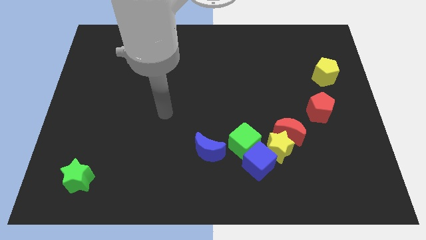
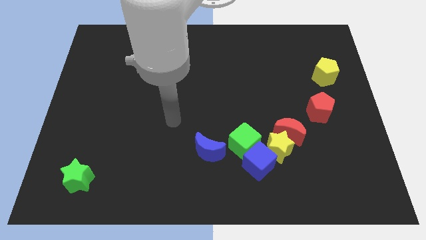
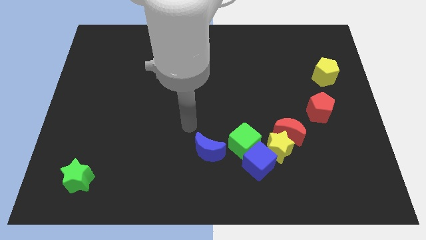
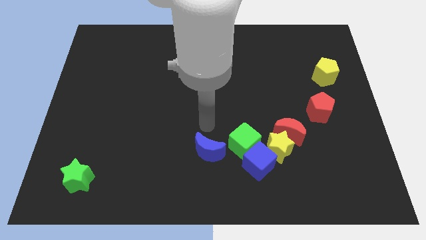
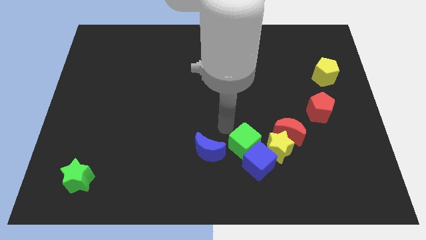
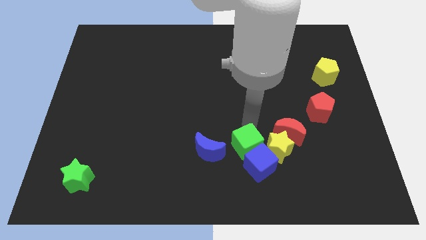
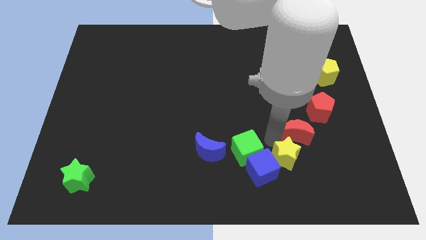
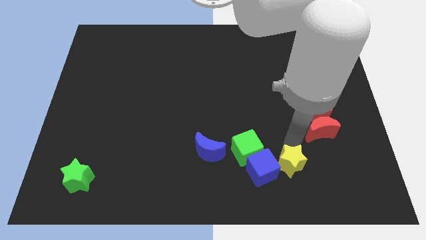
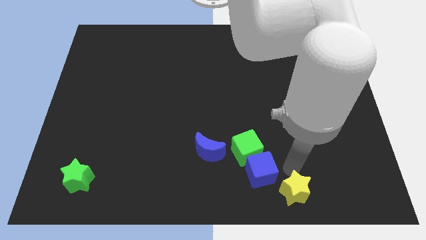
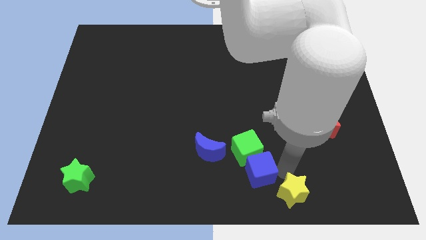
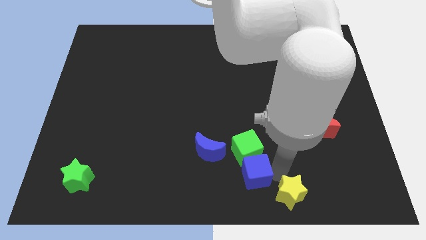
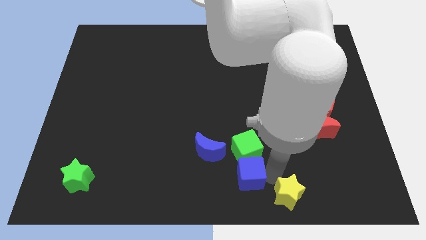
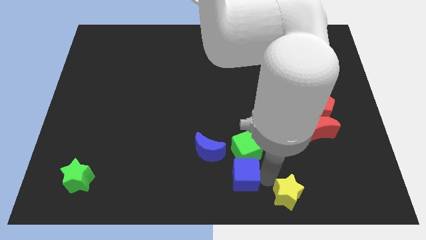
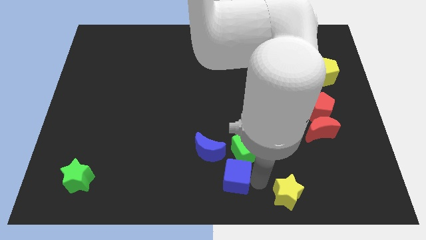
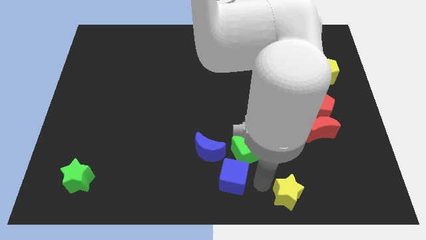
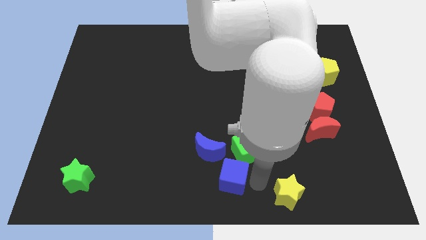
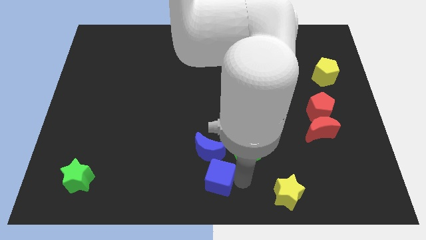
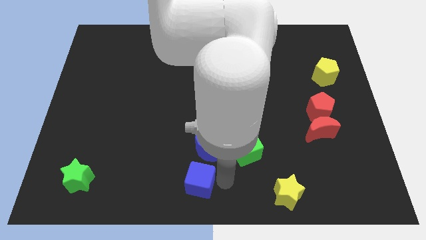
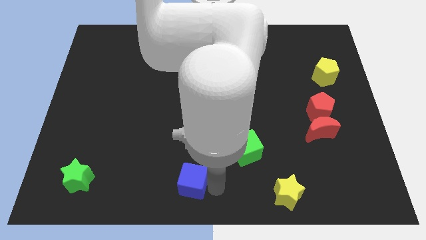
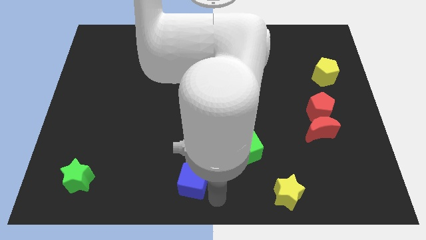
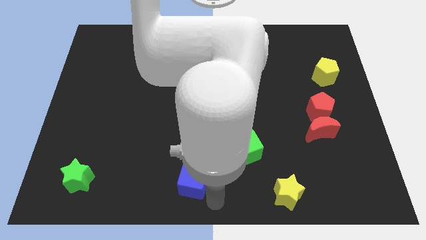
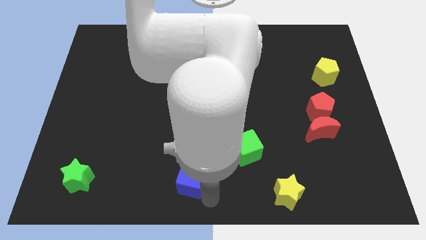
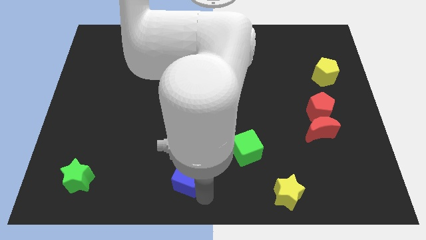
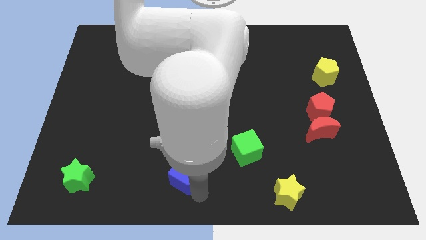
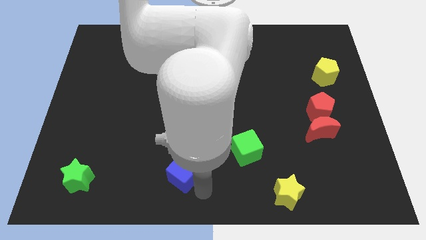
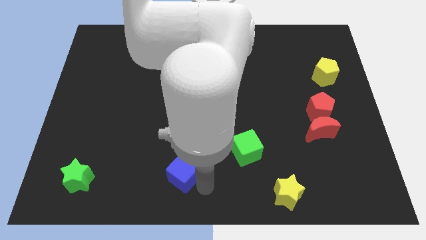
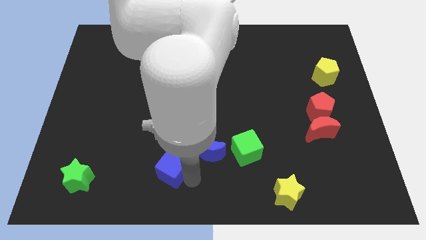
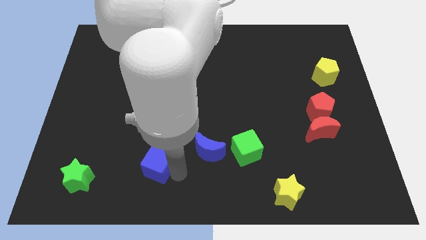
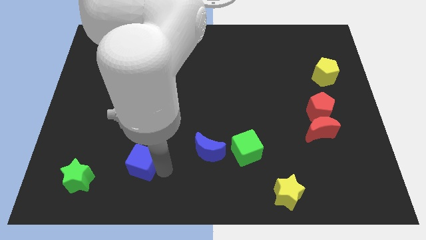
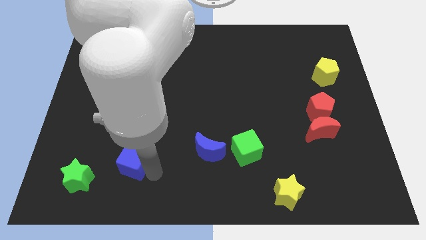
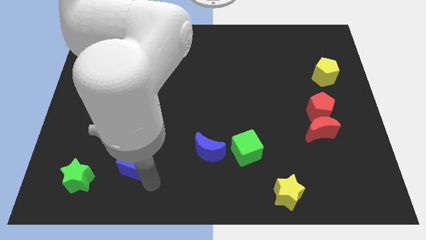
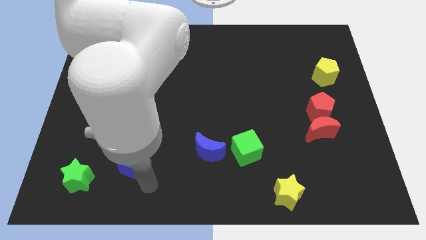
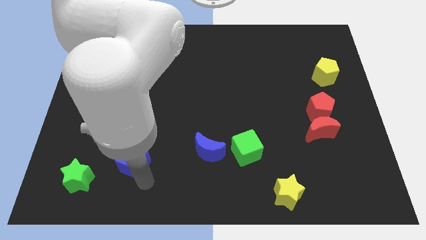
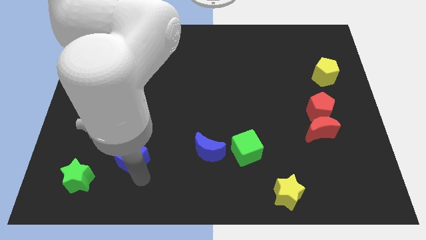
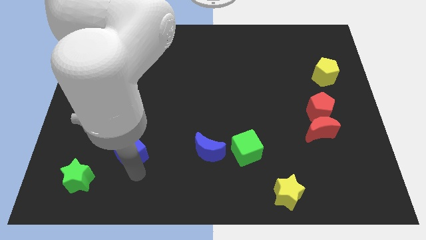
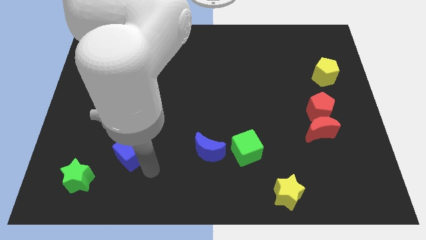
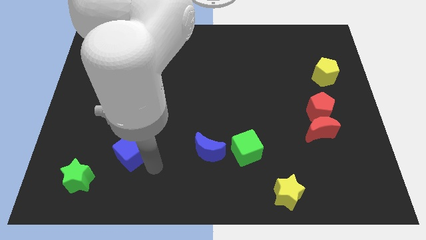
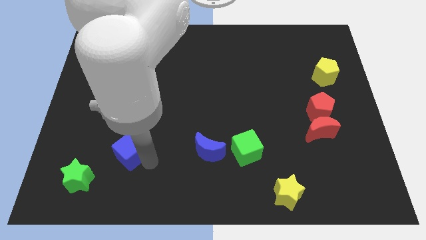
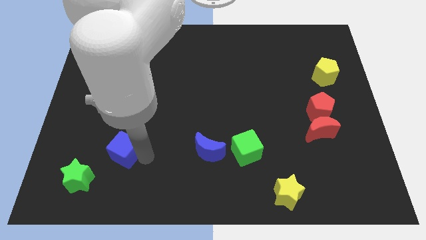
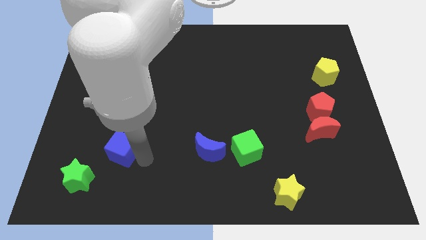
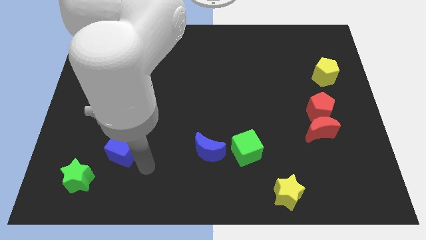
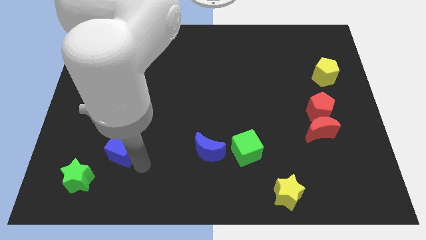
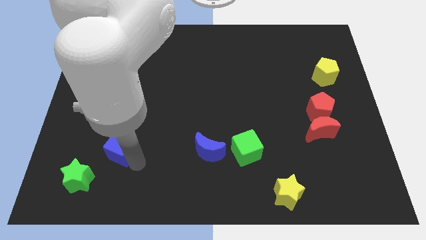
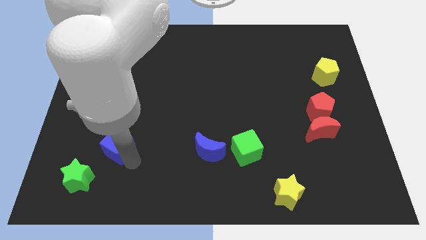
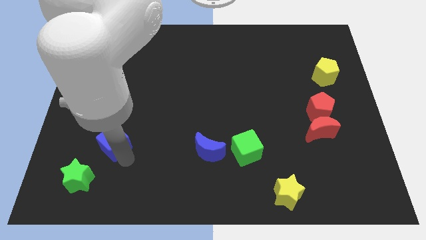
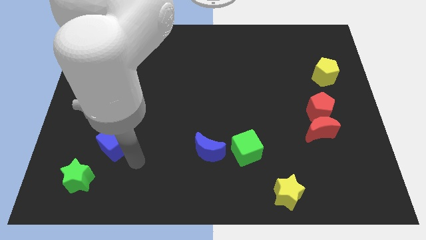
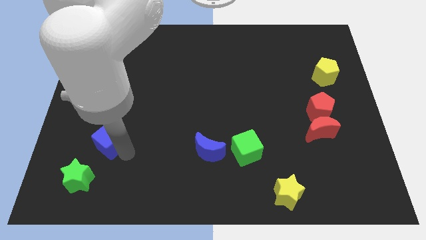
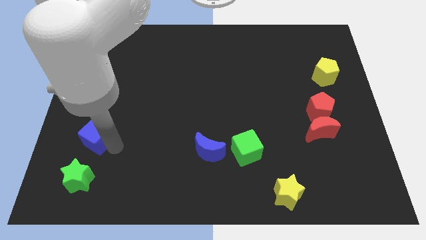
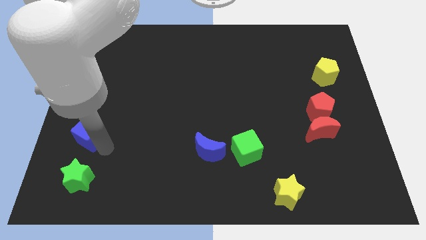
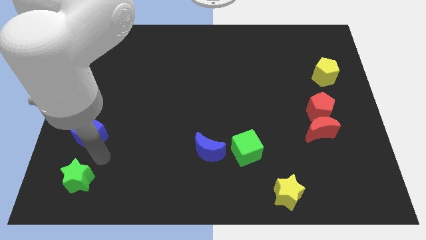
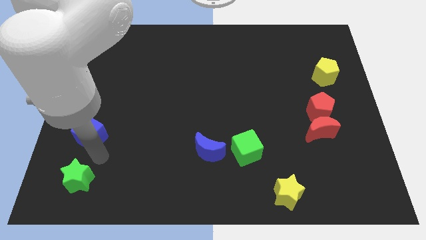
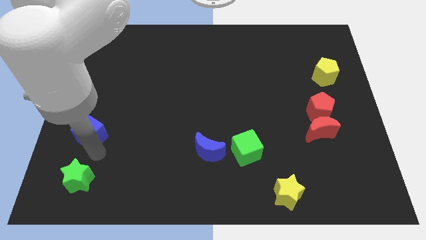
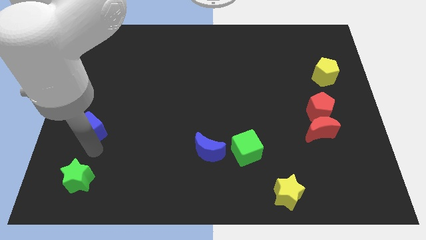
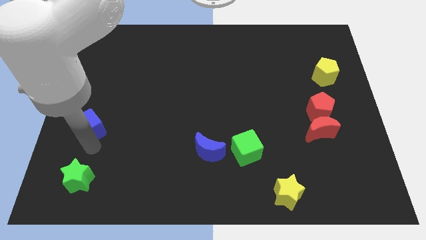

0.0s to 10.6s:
push the blue cube to the left side

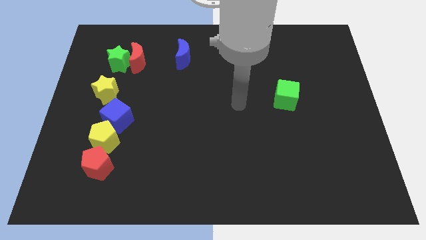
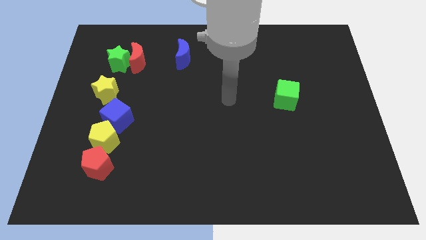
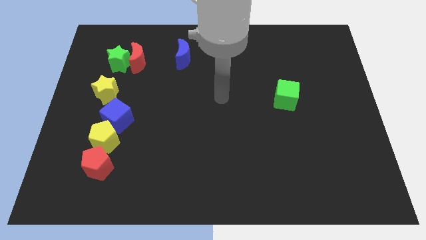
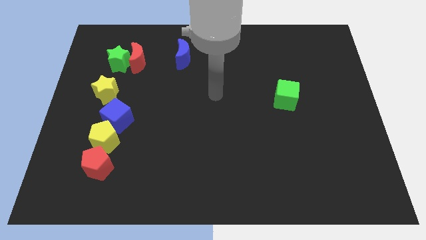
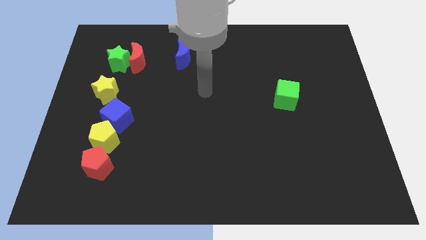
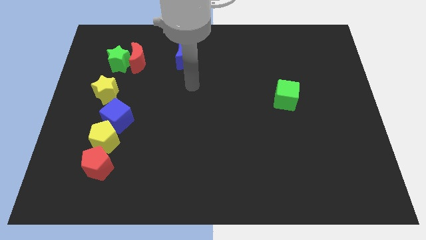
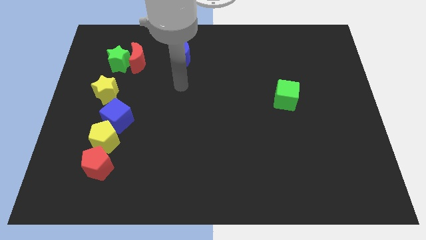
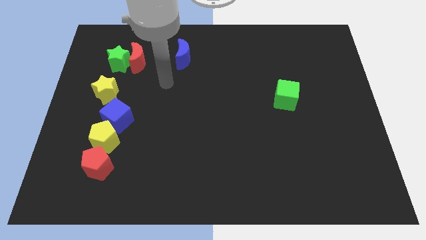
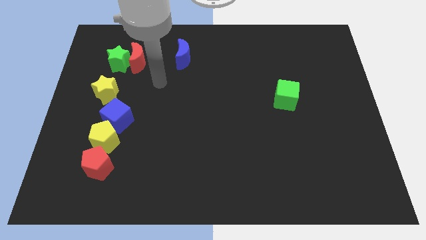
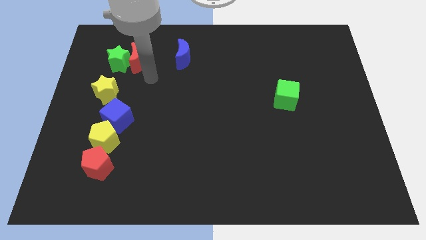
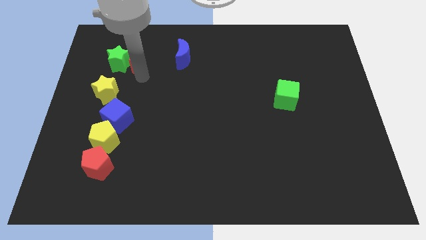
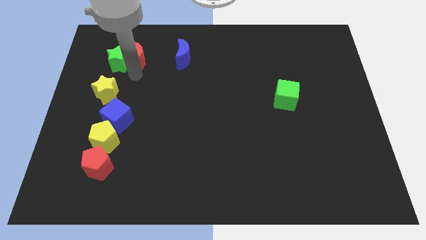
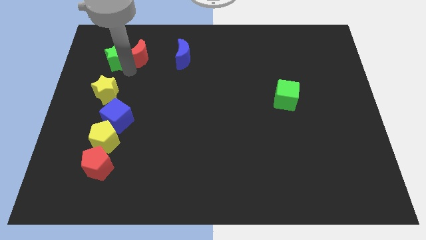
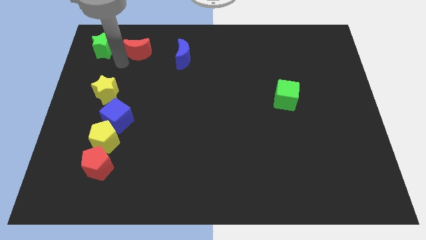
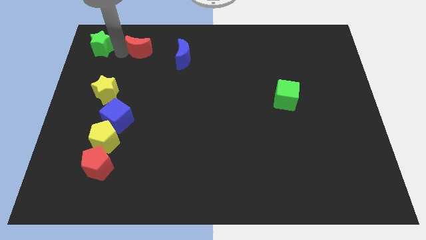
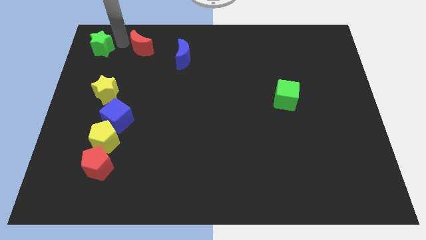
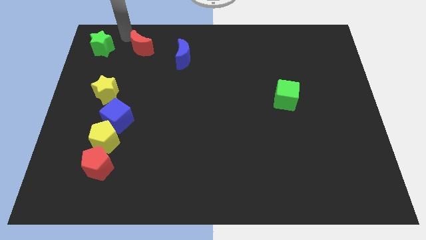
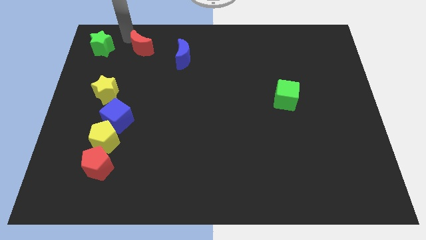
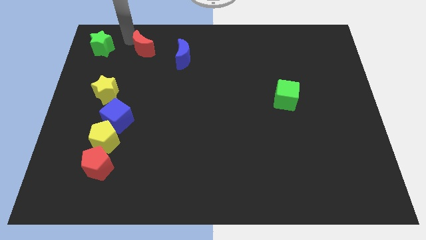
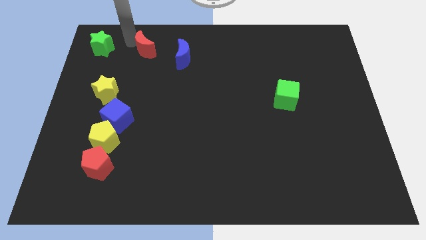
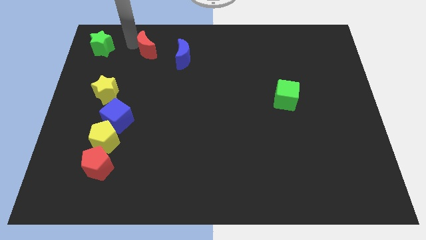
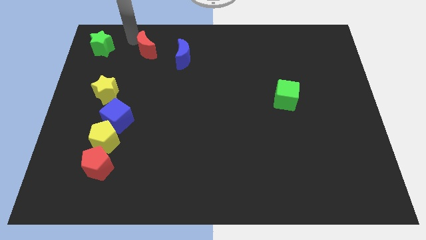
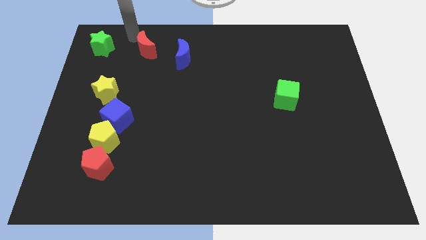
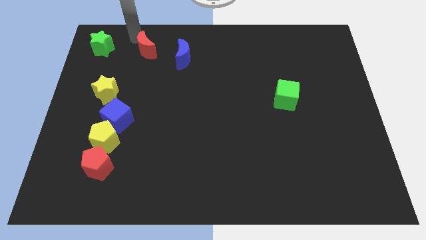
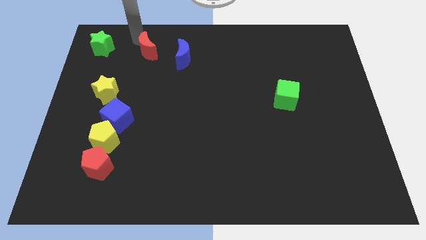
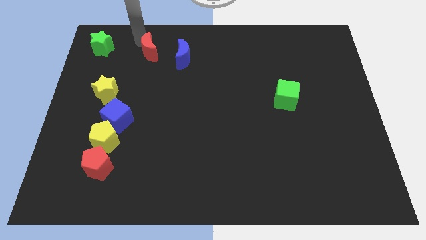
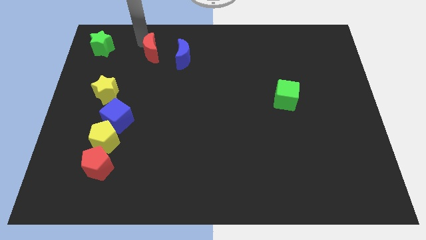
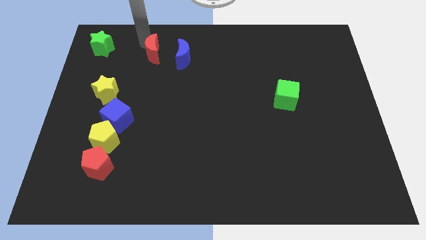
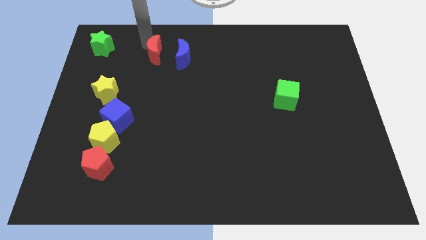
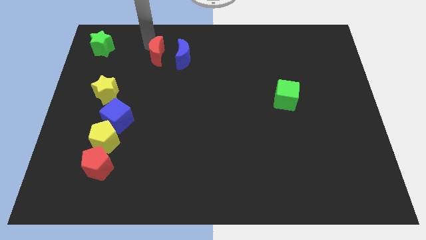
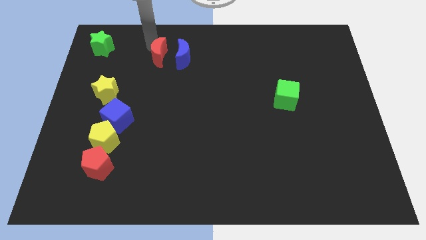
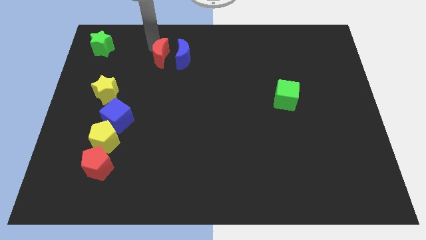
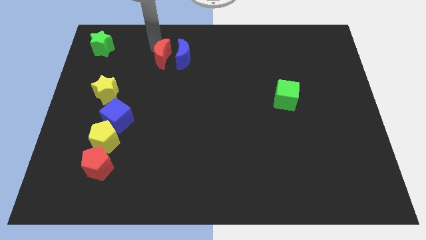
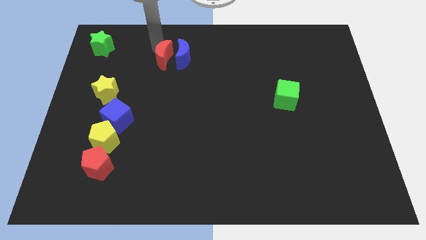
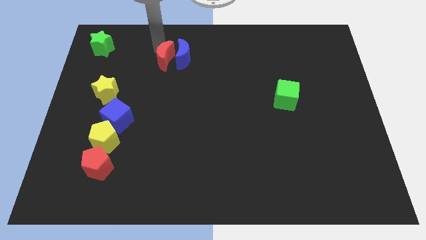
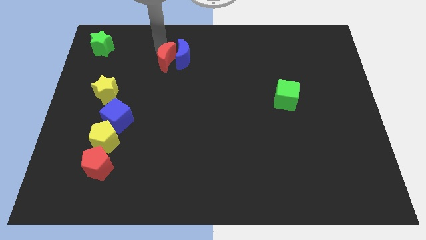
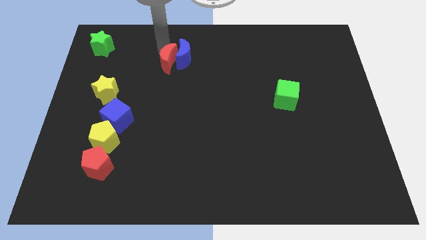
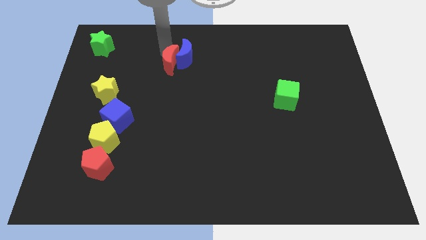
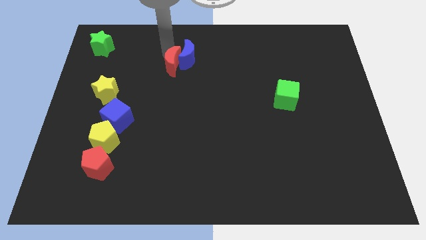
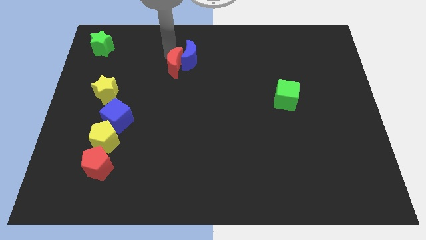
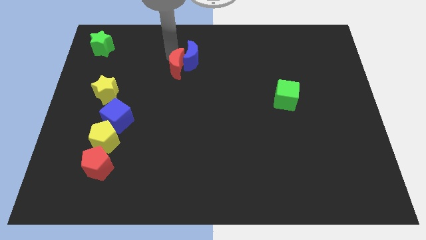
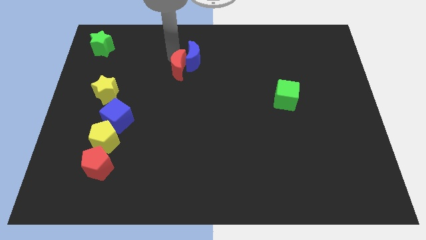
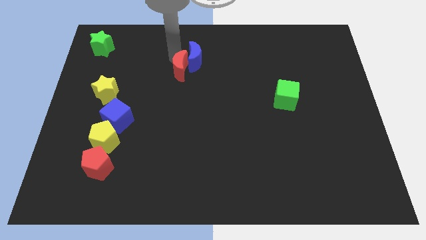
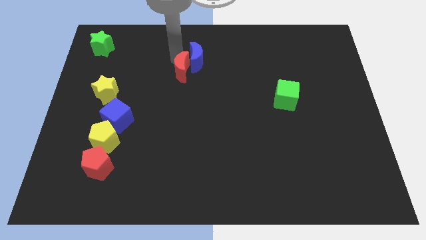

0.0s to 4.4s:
move the red moon to the center
